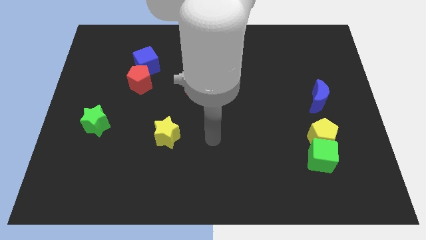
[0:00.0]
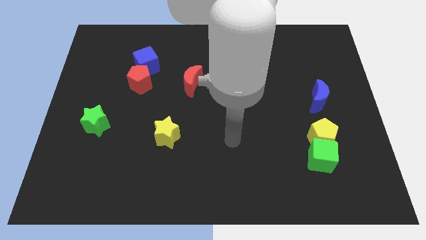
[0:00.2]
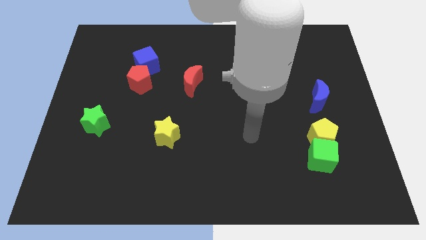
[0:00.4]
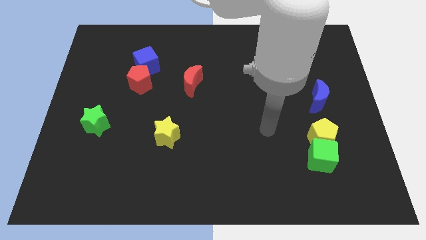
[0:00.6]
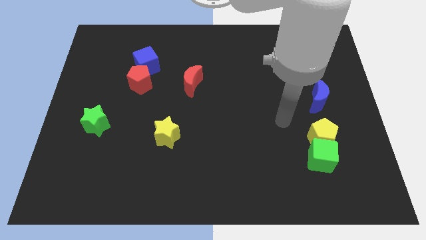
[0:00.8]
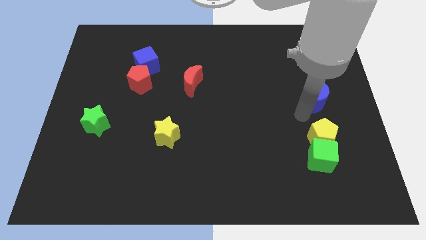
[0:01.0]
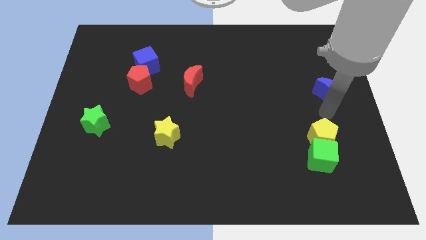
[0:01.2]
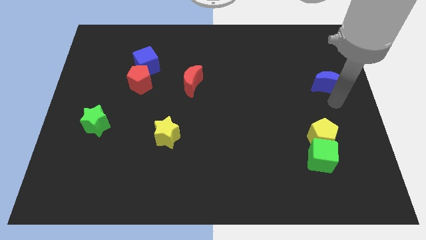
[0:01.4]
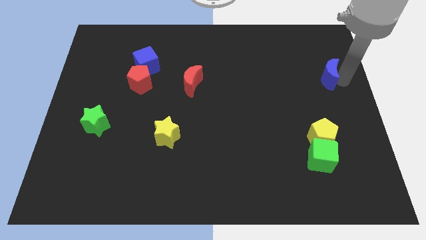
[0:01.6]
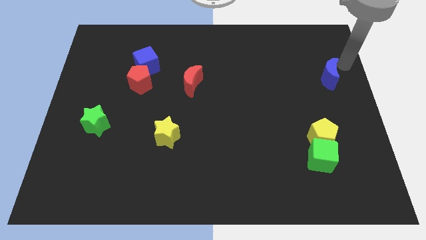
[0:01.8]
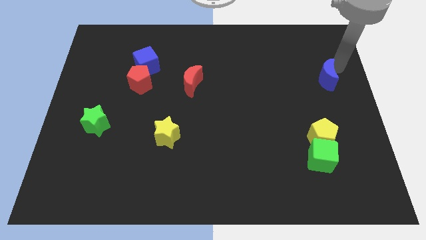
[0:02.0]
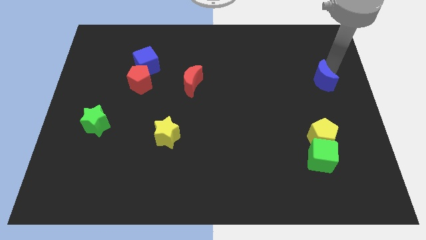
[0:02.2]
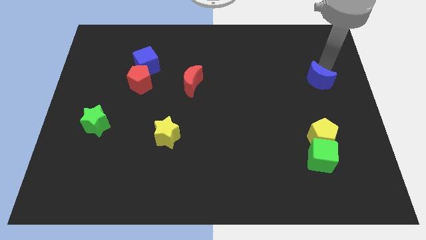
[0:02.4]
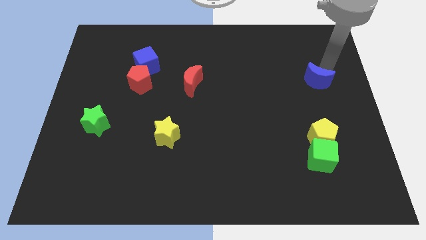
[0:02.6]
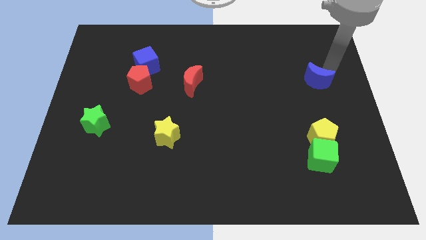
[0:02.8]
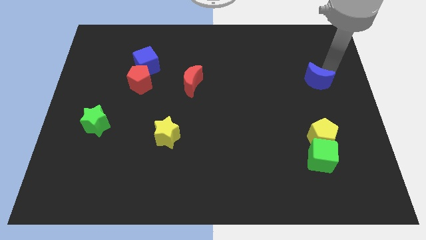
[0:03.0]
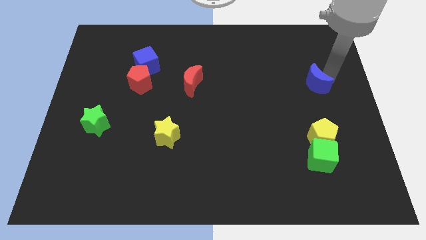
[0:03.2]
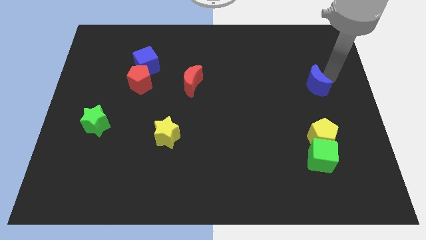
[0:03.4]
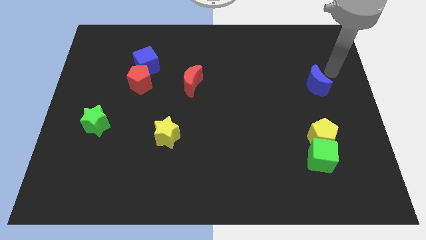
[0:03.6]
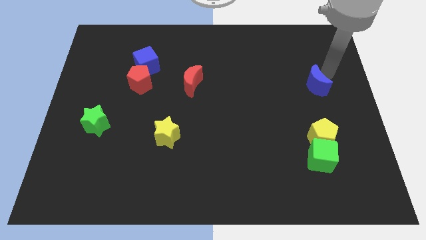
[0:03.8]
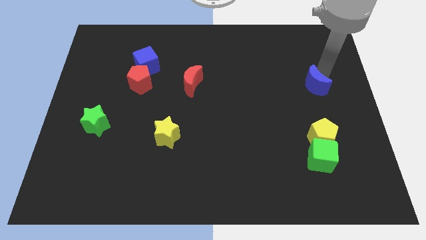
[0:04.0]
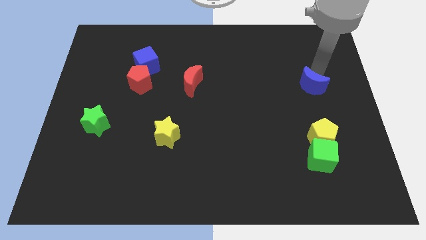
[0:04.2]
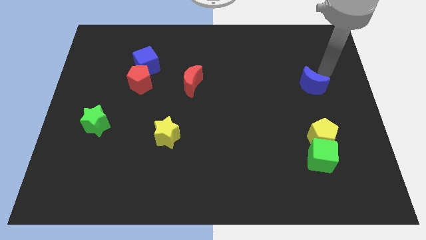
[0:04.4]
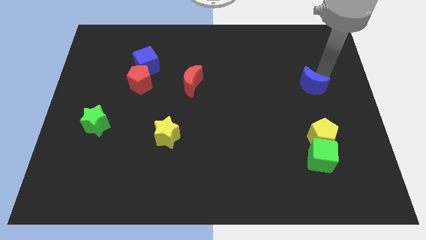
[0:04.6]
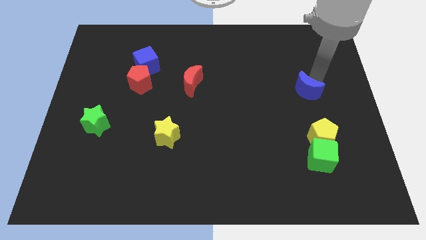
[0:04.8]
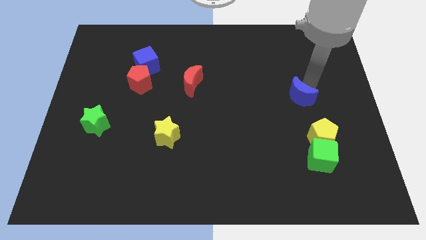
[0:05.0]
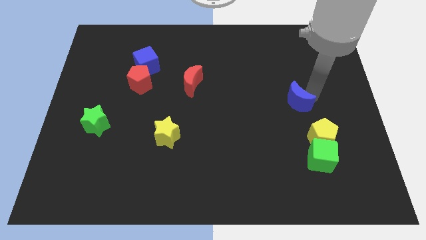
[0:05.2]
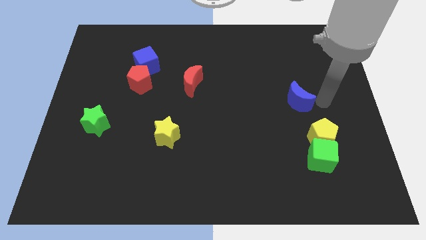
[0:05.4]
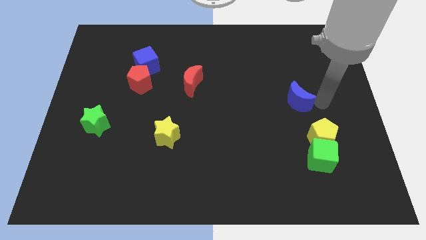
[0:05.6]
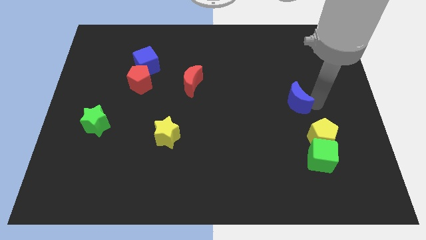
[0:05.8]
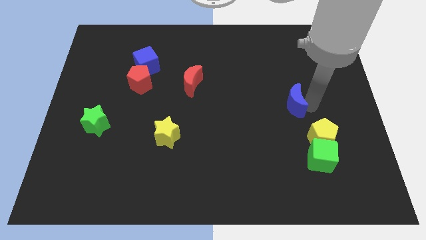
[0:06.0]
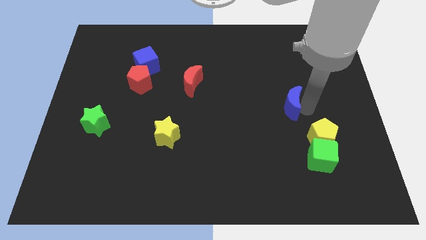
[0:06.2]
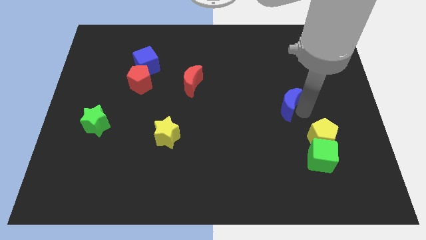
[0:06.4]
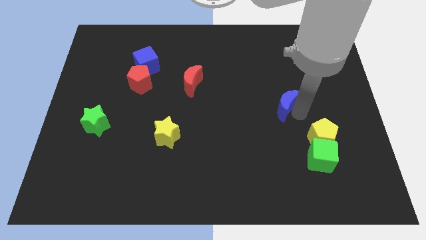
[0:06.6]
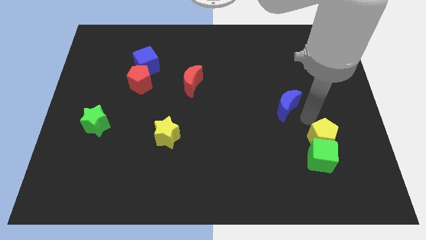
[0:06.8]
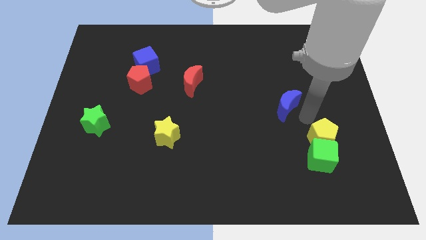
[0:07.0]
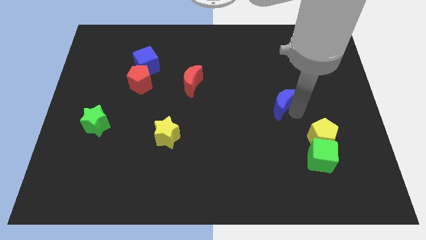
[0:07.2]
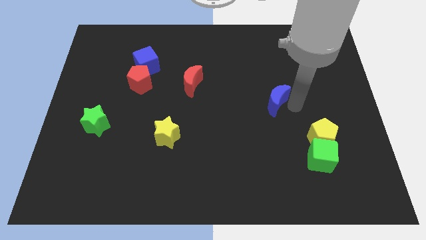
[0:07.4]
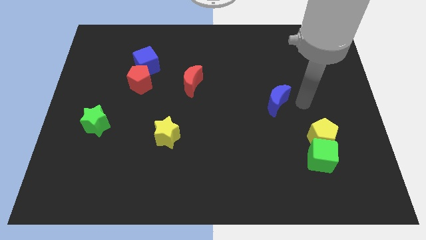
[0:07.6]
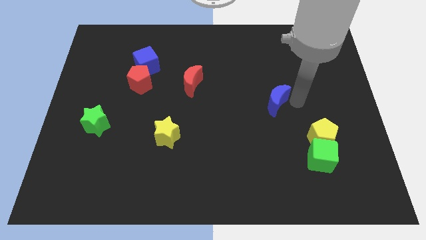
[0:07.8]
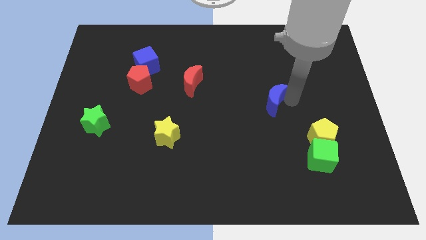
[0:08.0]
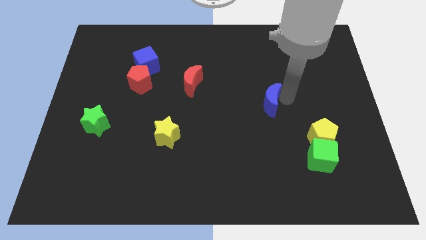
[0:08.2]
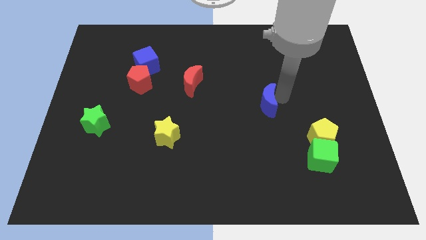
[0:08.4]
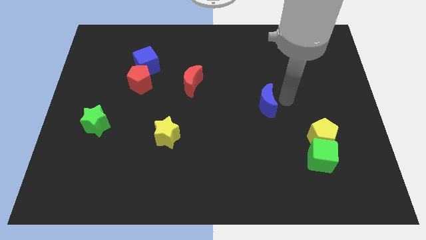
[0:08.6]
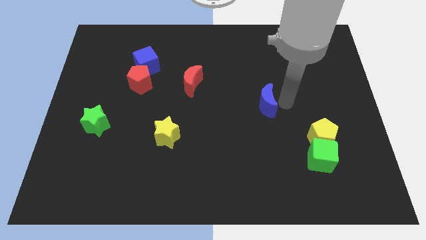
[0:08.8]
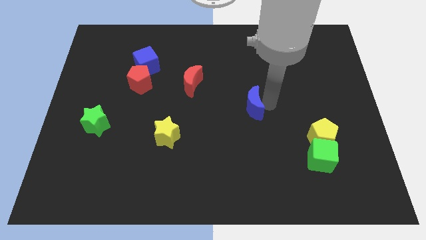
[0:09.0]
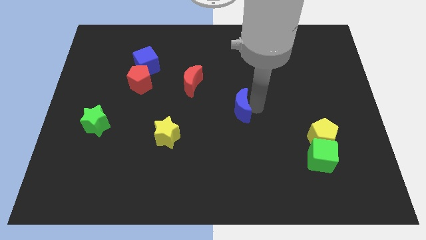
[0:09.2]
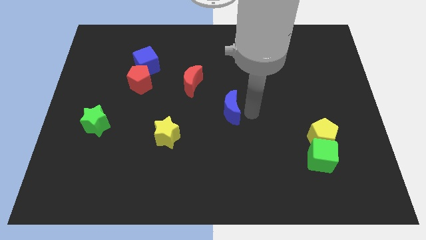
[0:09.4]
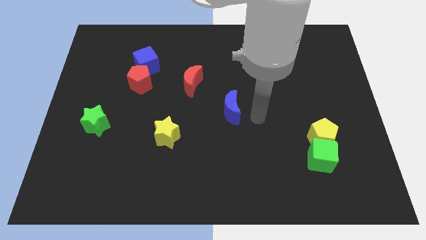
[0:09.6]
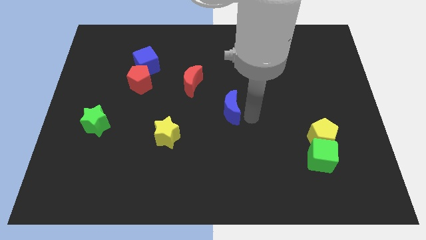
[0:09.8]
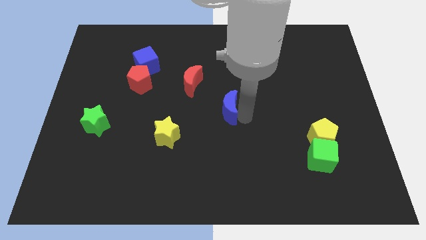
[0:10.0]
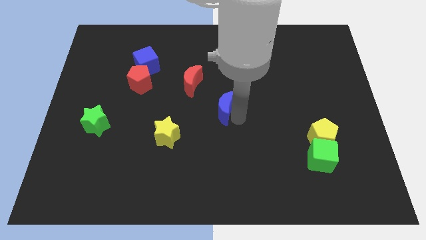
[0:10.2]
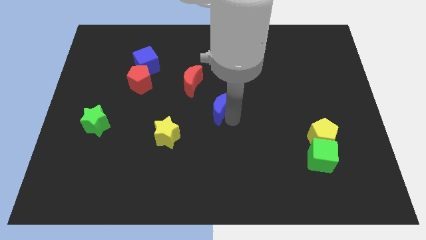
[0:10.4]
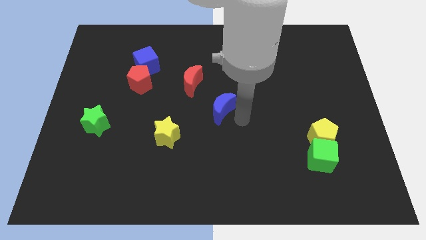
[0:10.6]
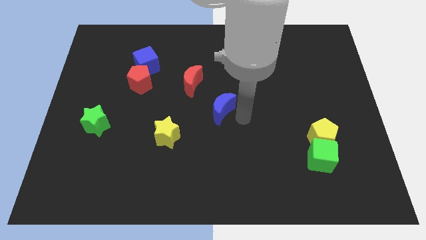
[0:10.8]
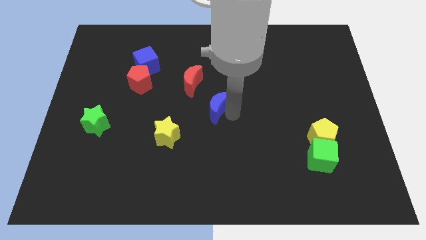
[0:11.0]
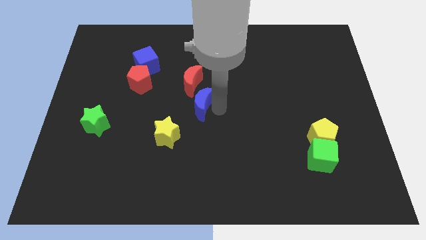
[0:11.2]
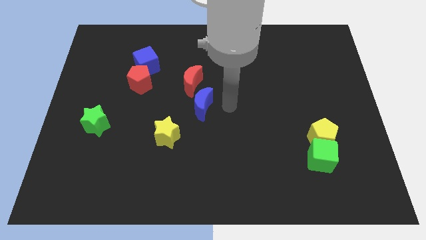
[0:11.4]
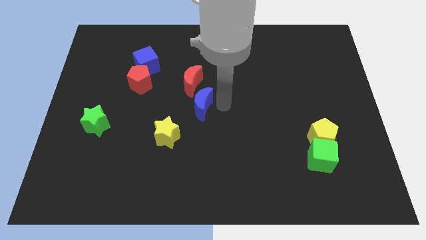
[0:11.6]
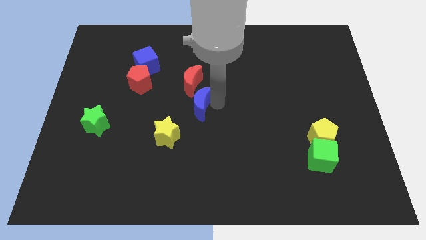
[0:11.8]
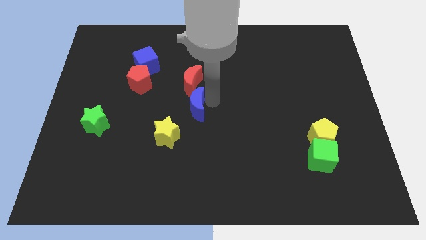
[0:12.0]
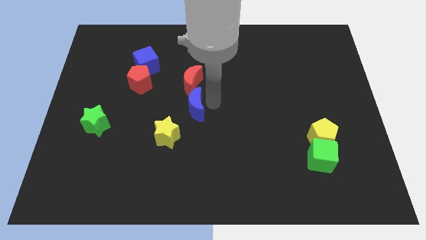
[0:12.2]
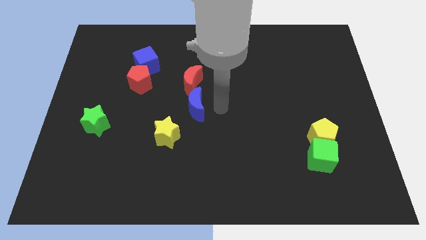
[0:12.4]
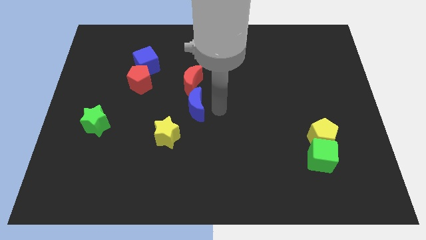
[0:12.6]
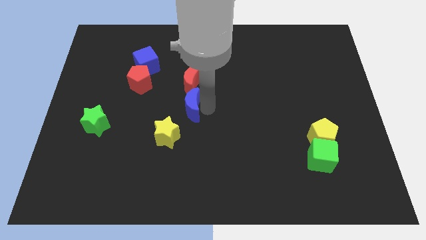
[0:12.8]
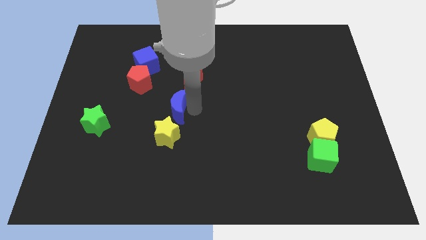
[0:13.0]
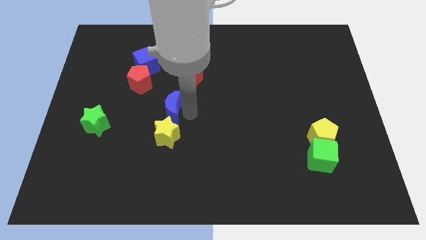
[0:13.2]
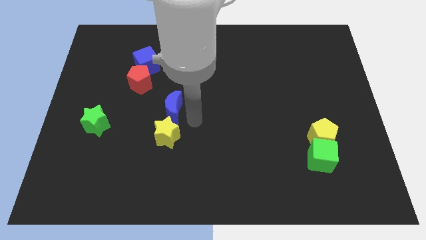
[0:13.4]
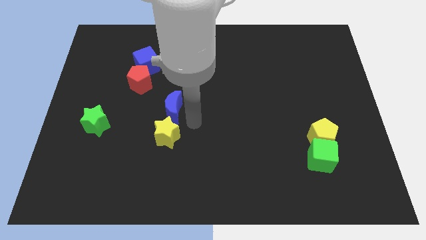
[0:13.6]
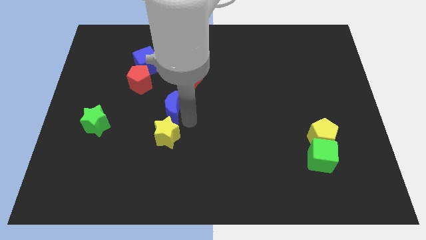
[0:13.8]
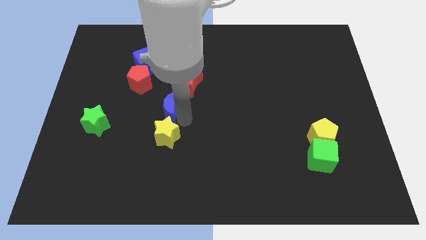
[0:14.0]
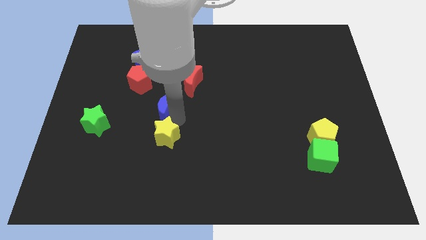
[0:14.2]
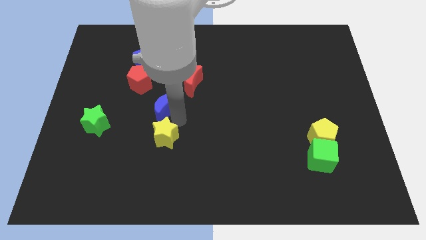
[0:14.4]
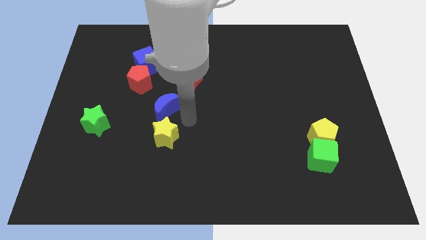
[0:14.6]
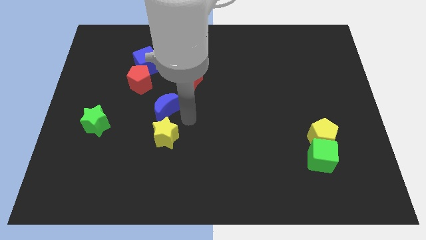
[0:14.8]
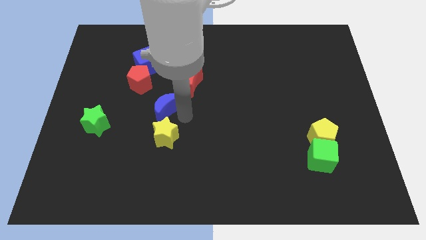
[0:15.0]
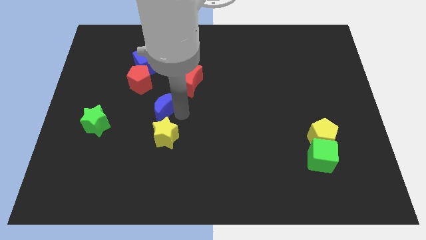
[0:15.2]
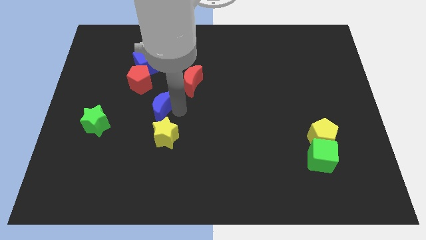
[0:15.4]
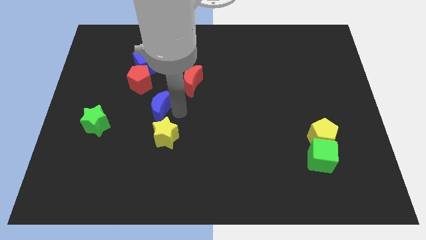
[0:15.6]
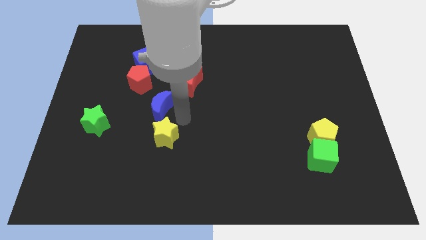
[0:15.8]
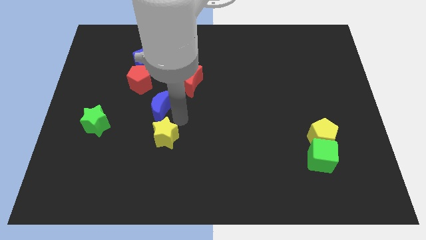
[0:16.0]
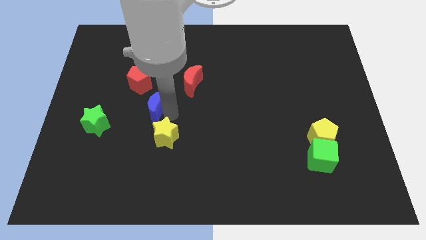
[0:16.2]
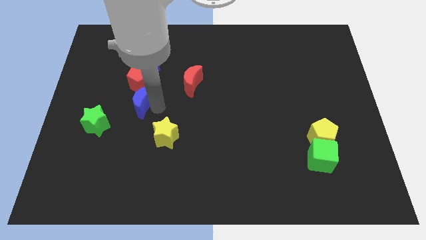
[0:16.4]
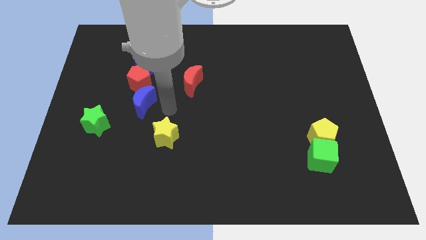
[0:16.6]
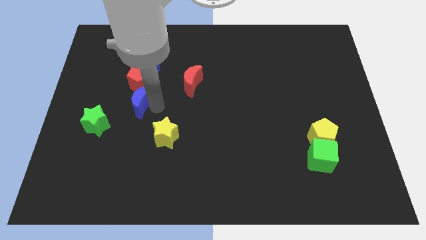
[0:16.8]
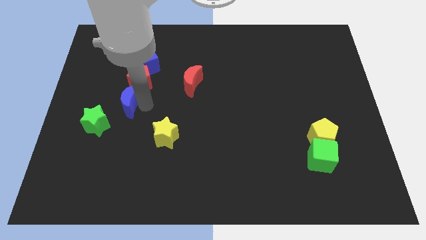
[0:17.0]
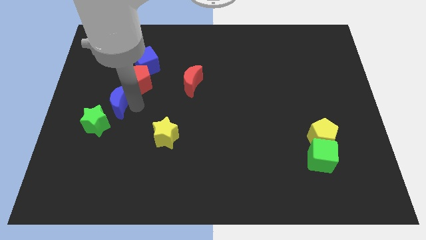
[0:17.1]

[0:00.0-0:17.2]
push the blue moon to the top of the green star
